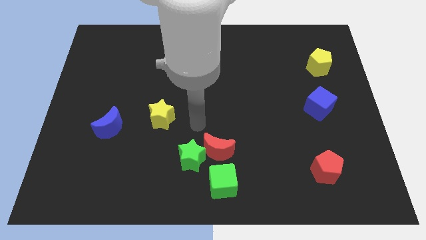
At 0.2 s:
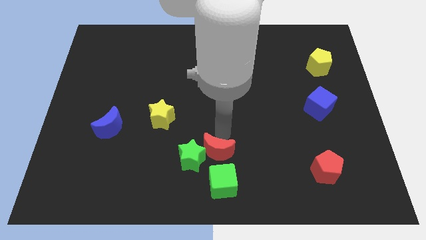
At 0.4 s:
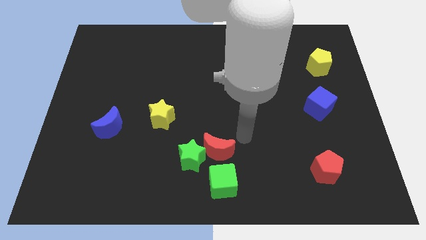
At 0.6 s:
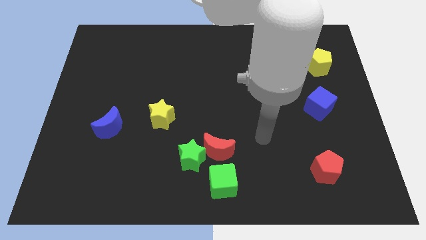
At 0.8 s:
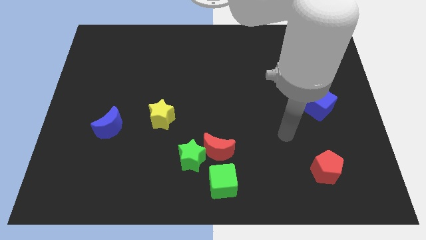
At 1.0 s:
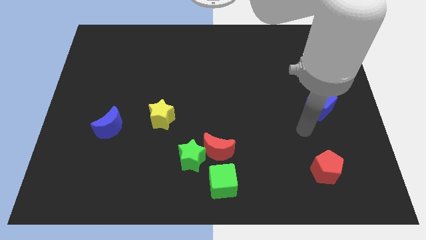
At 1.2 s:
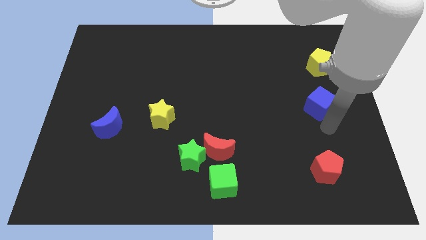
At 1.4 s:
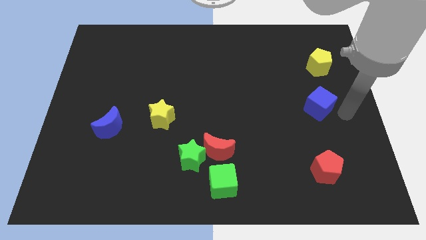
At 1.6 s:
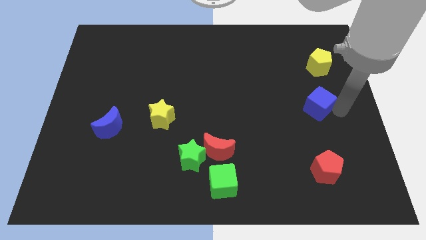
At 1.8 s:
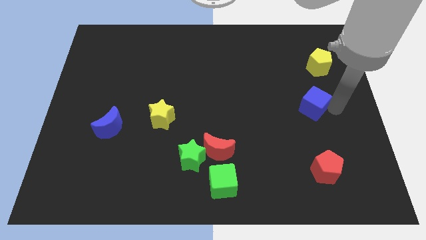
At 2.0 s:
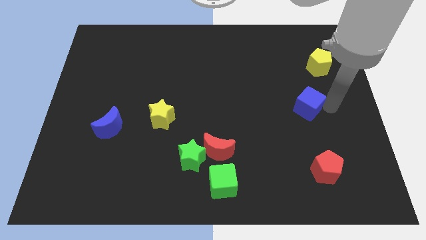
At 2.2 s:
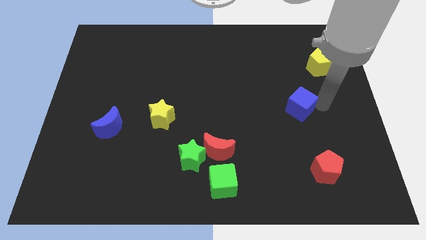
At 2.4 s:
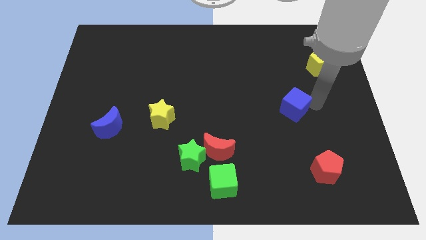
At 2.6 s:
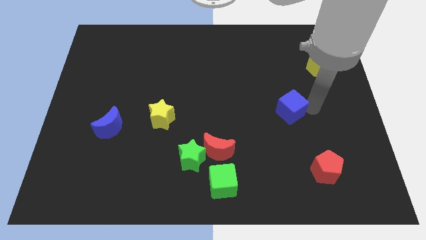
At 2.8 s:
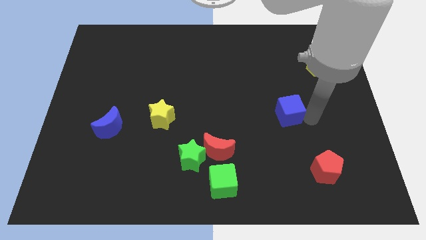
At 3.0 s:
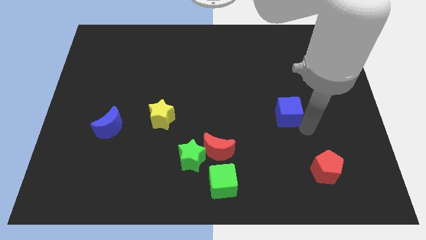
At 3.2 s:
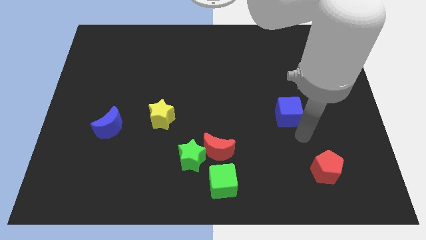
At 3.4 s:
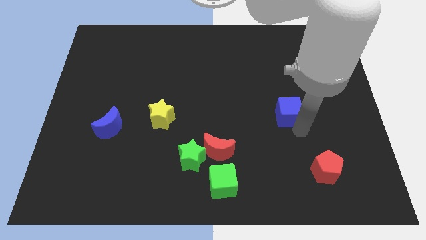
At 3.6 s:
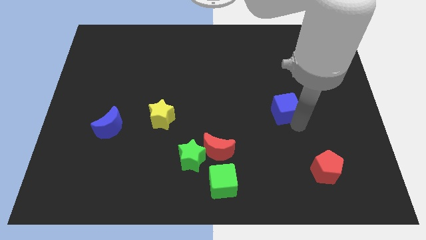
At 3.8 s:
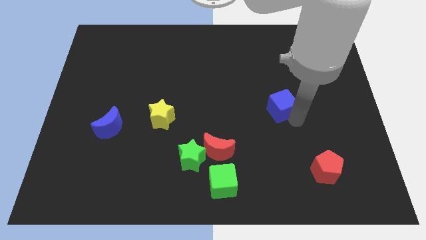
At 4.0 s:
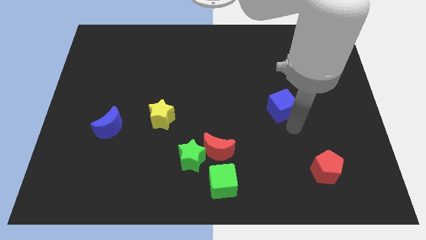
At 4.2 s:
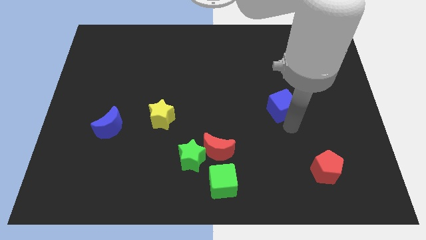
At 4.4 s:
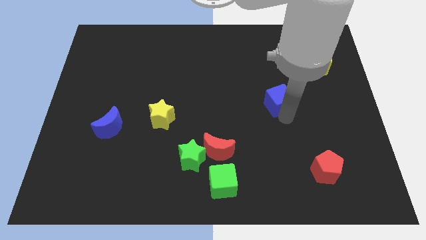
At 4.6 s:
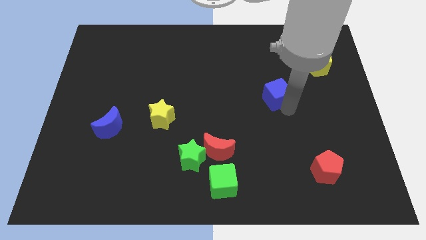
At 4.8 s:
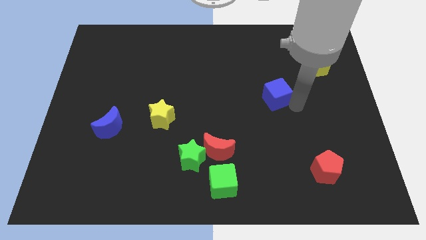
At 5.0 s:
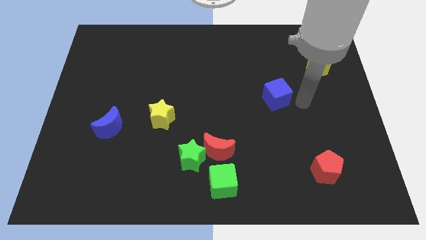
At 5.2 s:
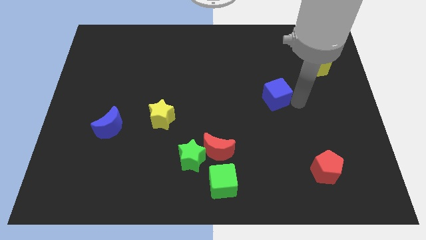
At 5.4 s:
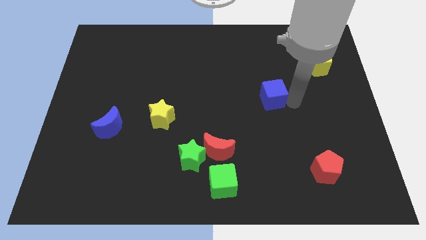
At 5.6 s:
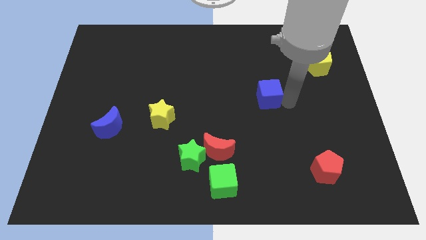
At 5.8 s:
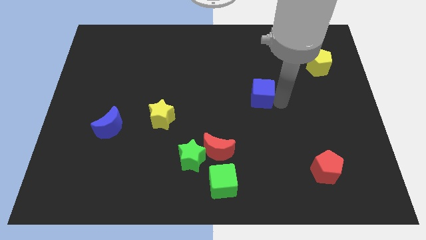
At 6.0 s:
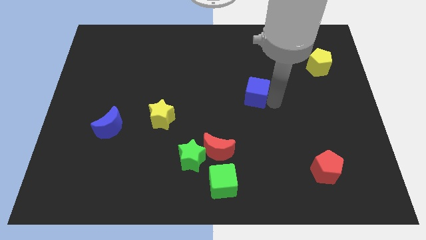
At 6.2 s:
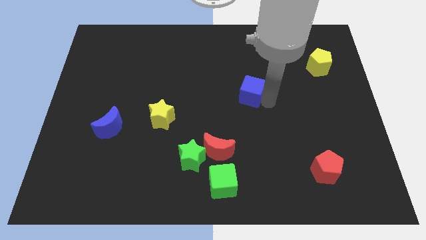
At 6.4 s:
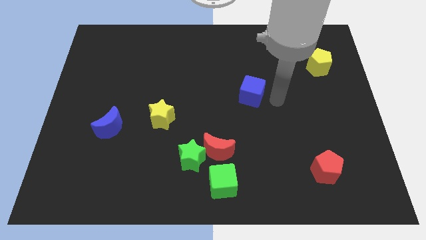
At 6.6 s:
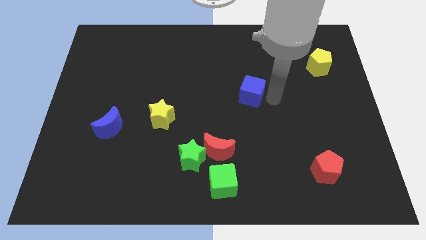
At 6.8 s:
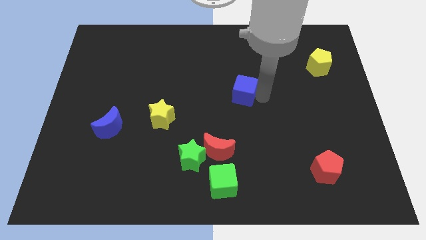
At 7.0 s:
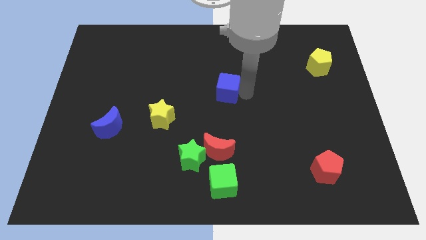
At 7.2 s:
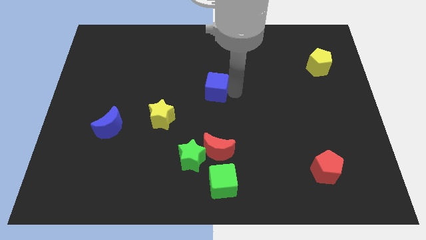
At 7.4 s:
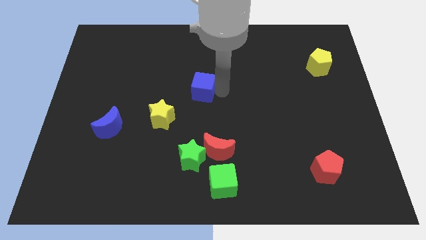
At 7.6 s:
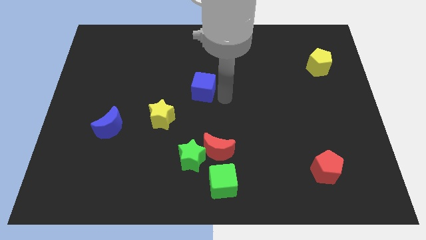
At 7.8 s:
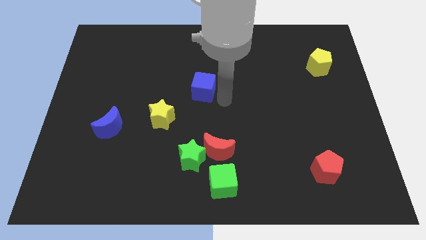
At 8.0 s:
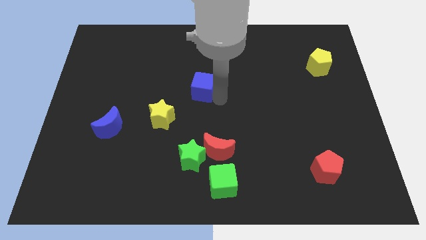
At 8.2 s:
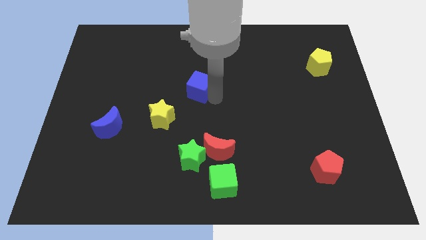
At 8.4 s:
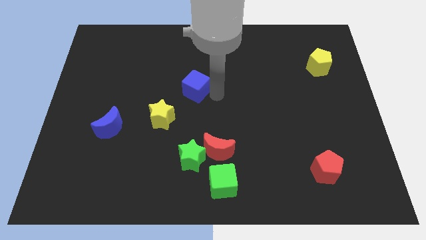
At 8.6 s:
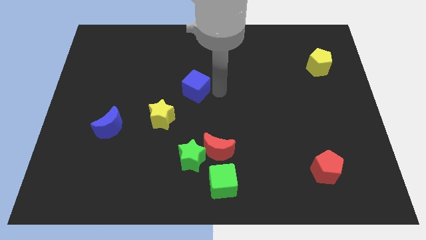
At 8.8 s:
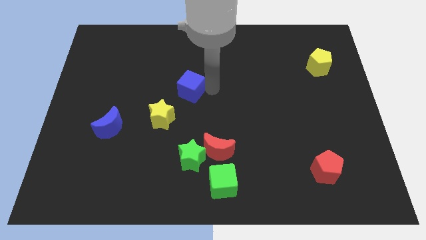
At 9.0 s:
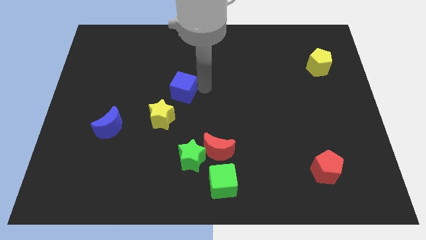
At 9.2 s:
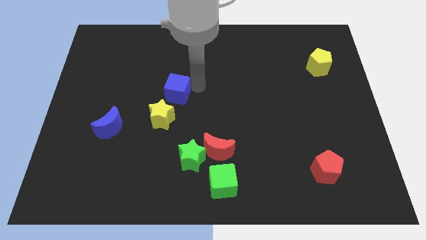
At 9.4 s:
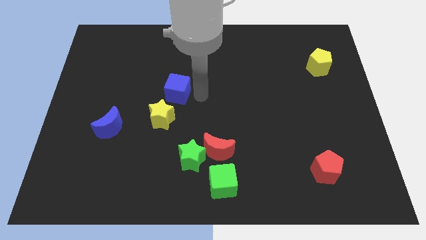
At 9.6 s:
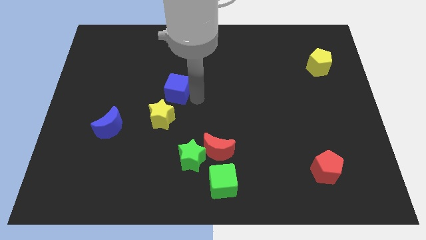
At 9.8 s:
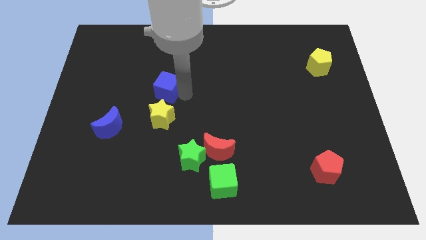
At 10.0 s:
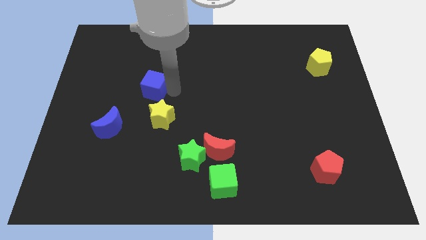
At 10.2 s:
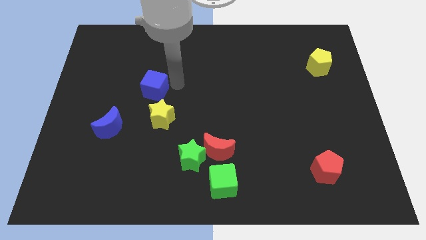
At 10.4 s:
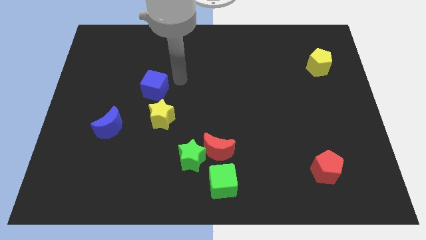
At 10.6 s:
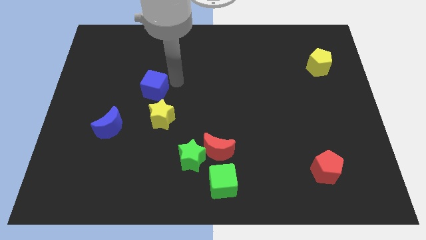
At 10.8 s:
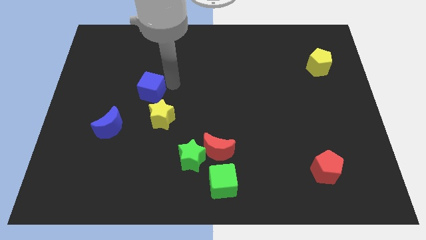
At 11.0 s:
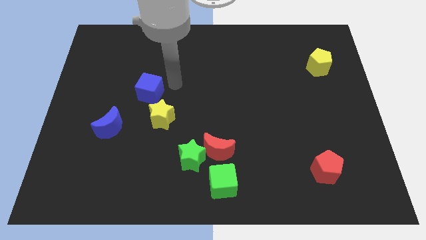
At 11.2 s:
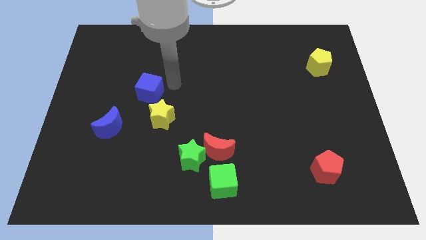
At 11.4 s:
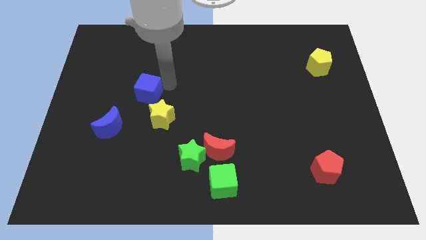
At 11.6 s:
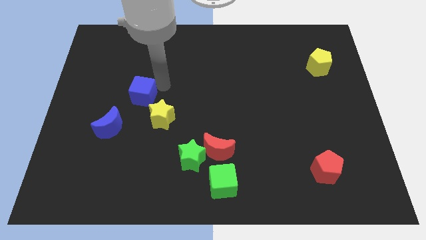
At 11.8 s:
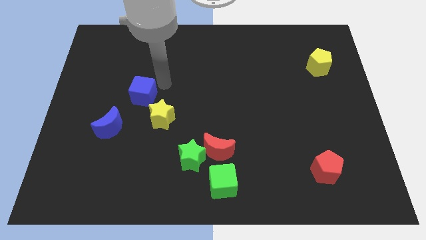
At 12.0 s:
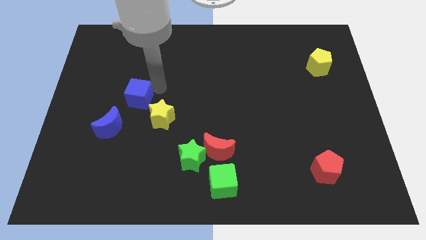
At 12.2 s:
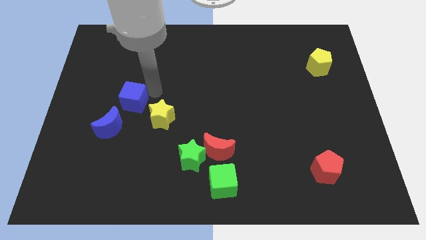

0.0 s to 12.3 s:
push the blue cube to the left of the yellow star

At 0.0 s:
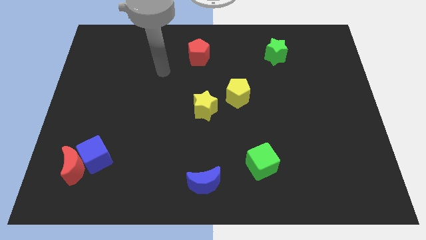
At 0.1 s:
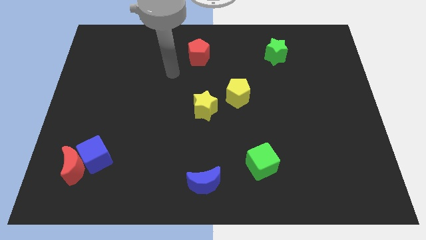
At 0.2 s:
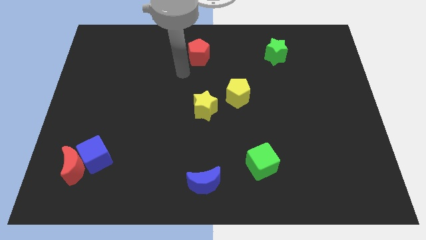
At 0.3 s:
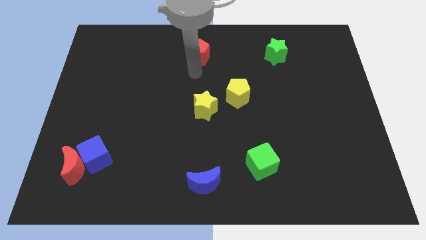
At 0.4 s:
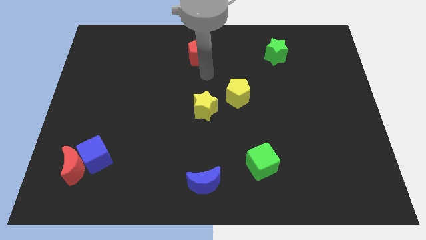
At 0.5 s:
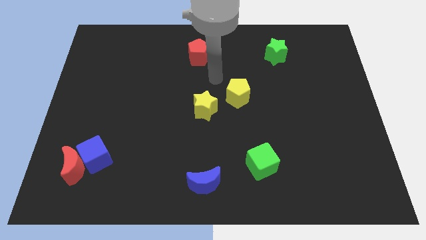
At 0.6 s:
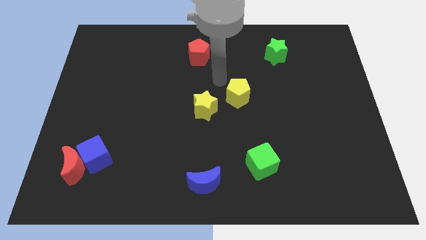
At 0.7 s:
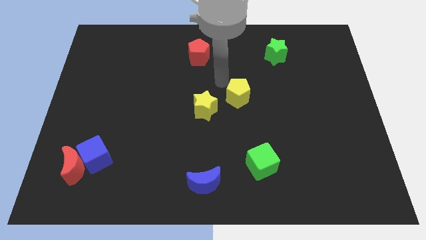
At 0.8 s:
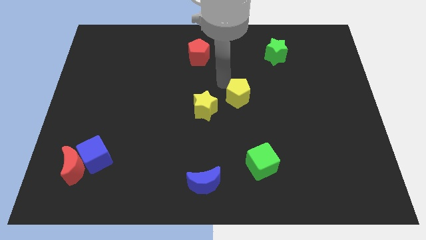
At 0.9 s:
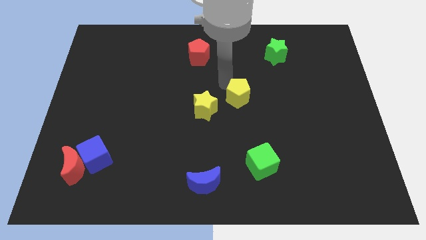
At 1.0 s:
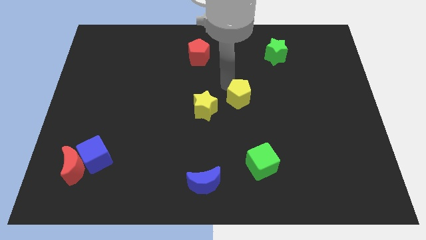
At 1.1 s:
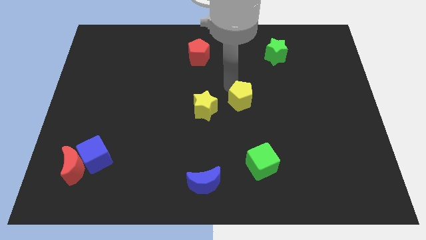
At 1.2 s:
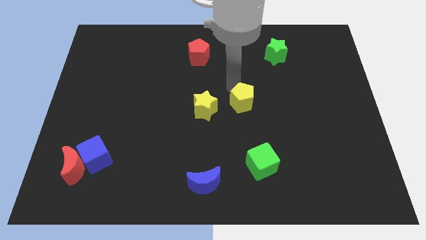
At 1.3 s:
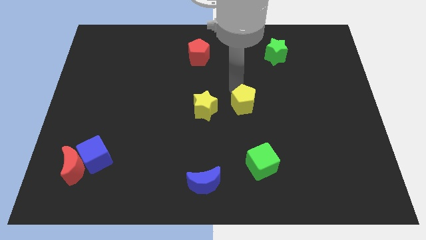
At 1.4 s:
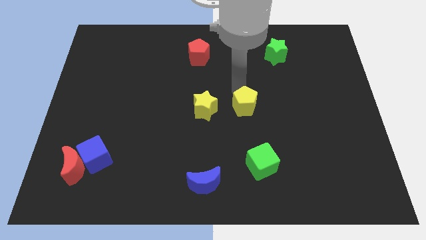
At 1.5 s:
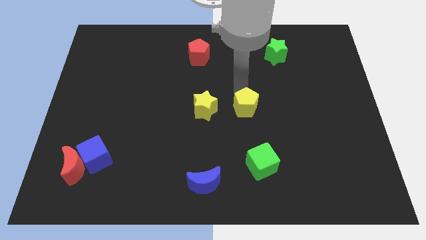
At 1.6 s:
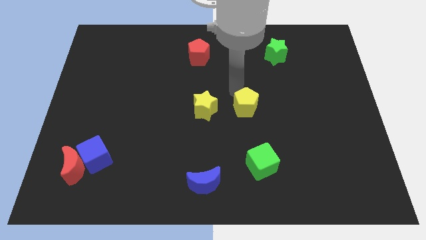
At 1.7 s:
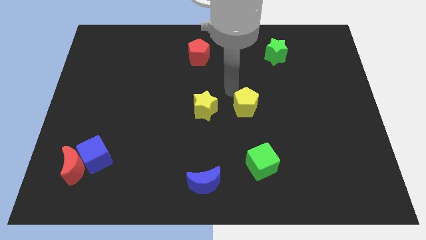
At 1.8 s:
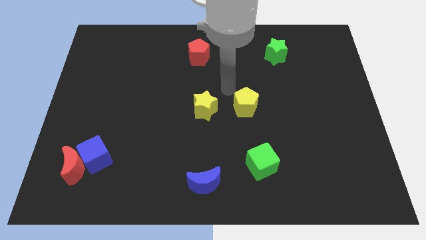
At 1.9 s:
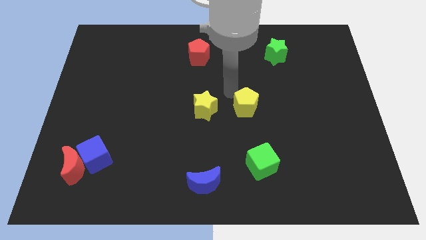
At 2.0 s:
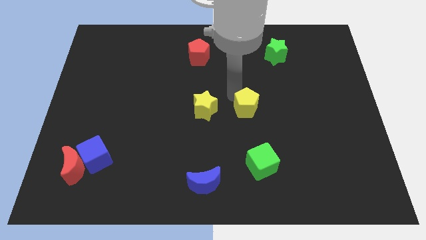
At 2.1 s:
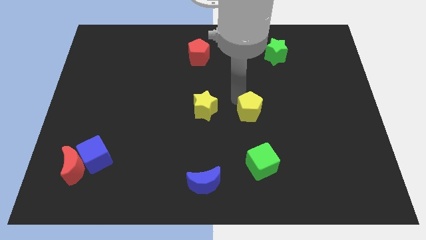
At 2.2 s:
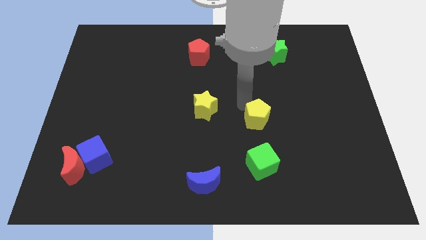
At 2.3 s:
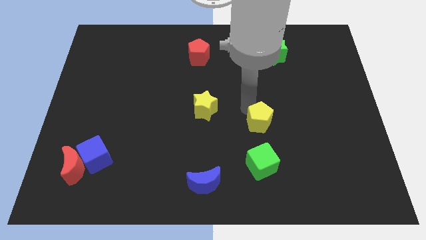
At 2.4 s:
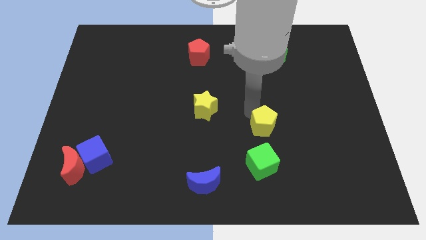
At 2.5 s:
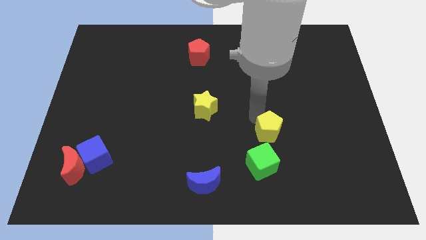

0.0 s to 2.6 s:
push the yellow pentagon to the top right of the green cube
